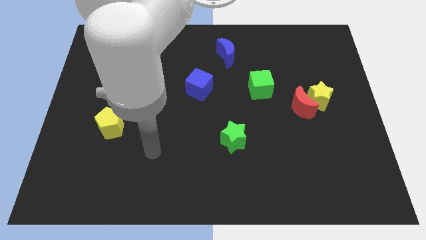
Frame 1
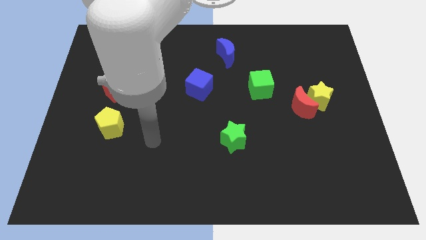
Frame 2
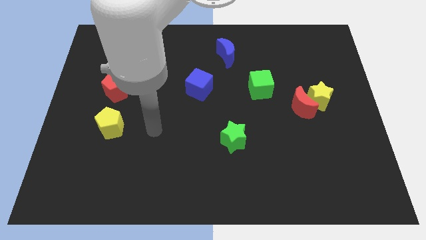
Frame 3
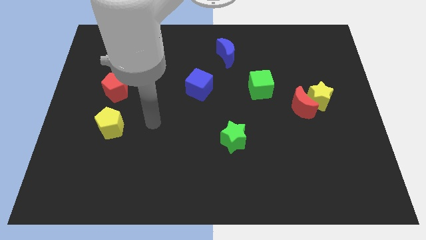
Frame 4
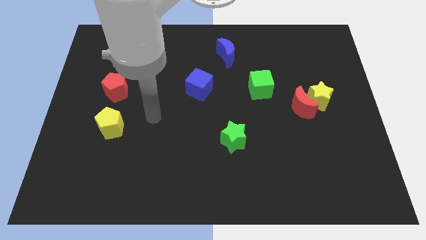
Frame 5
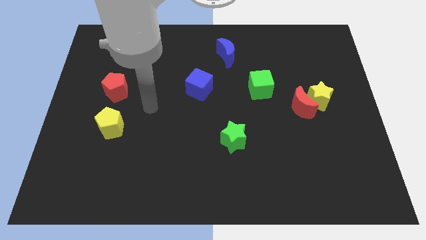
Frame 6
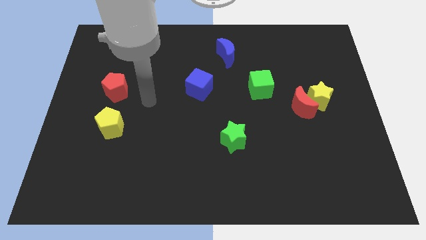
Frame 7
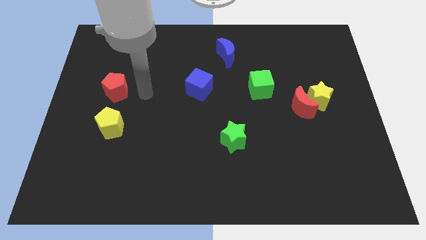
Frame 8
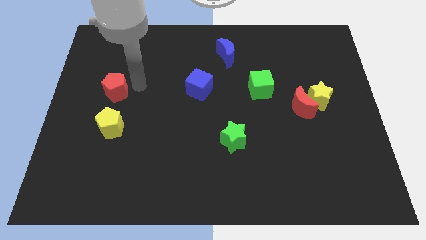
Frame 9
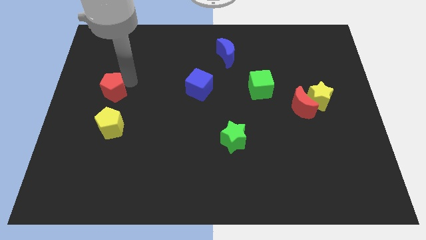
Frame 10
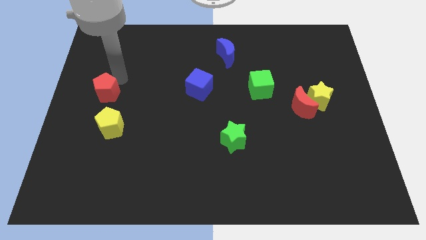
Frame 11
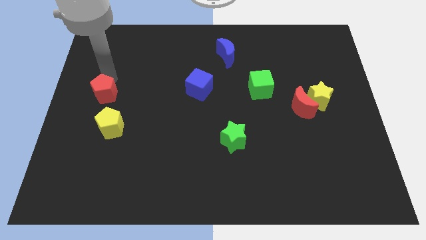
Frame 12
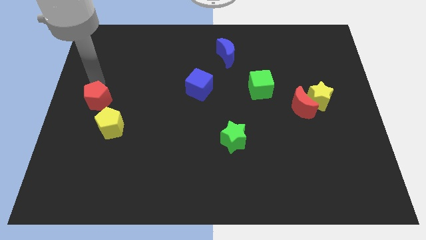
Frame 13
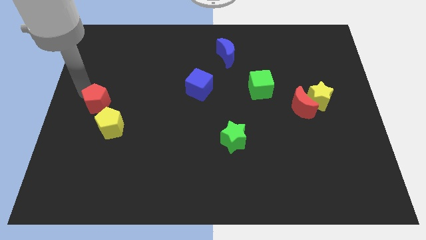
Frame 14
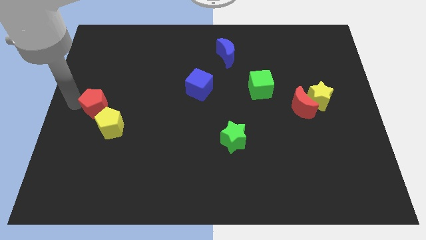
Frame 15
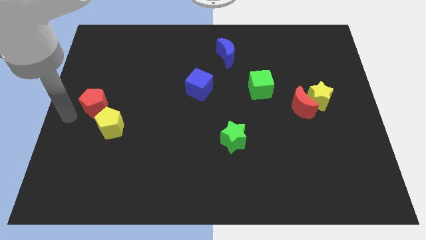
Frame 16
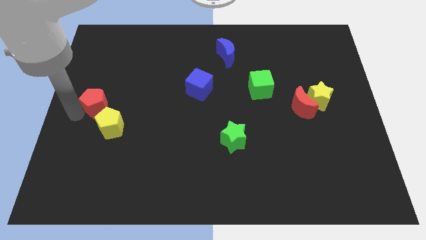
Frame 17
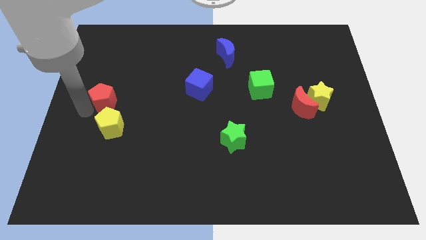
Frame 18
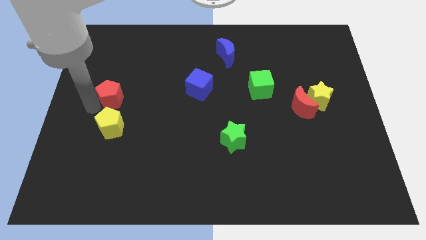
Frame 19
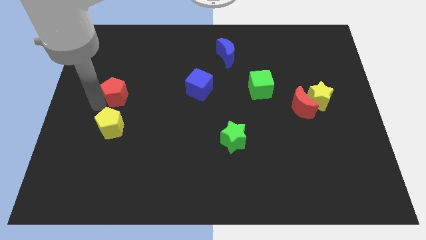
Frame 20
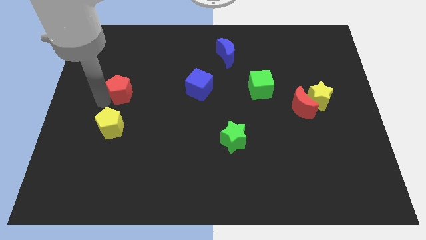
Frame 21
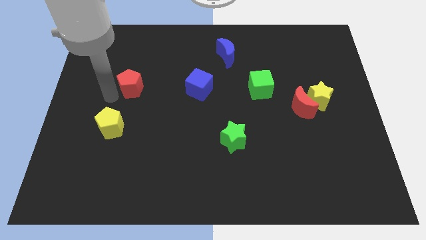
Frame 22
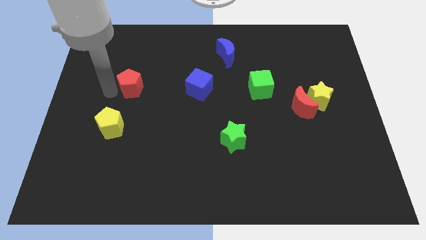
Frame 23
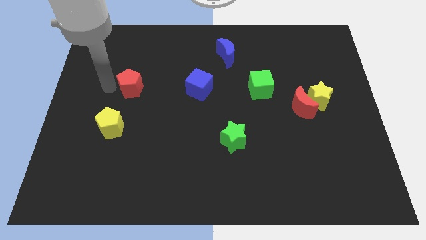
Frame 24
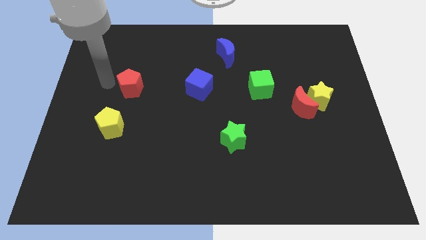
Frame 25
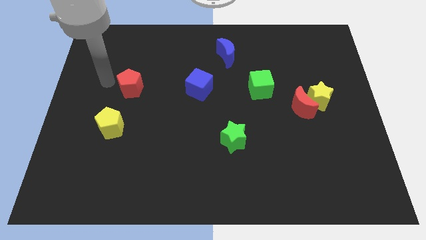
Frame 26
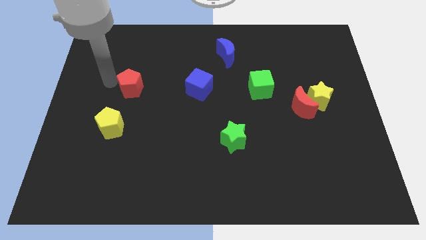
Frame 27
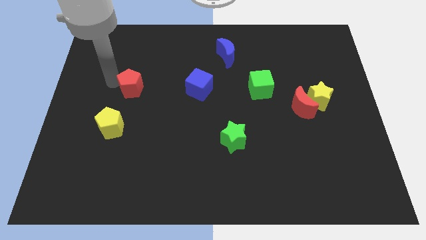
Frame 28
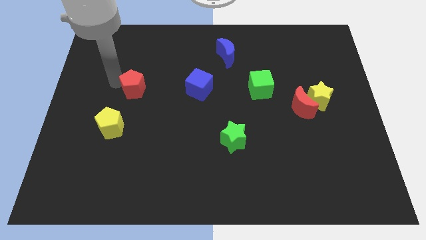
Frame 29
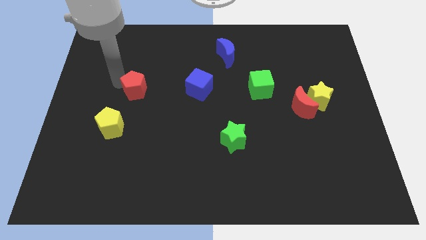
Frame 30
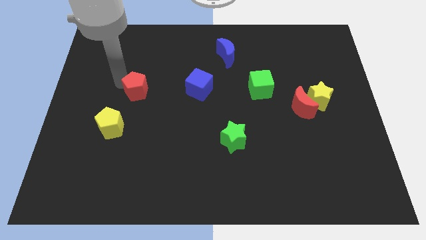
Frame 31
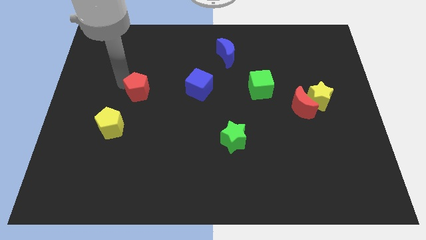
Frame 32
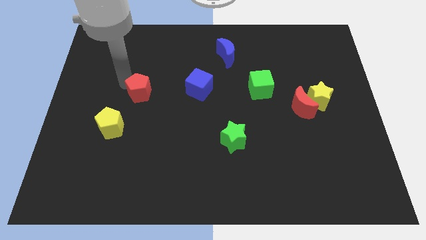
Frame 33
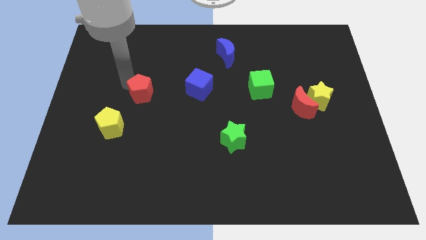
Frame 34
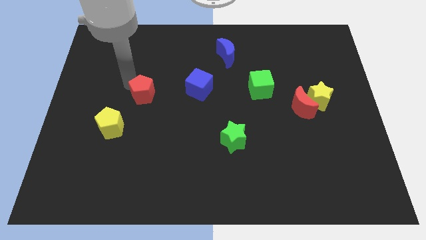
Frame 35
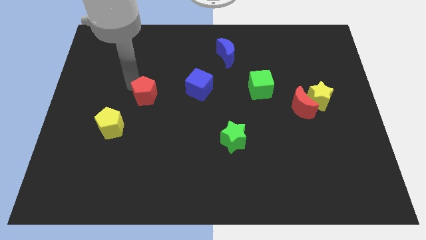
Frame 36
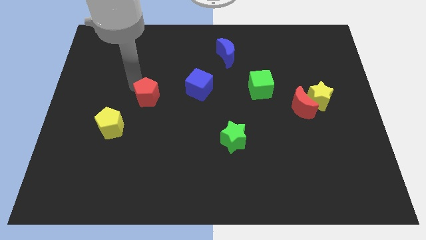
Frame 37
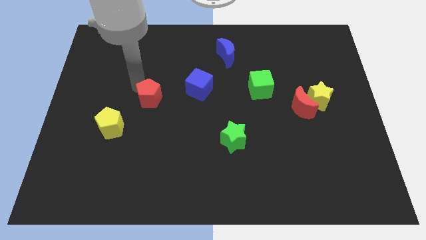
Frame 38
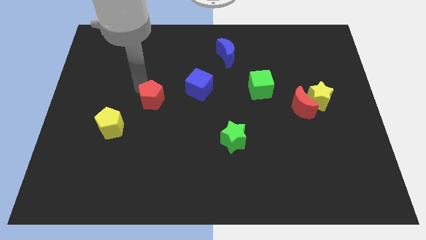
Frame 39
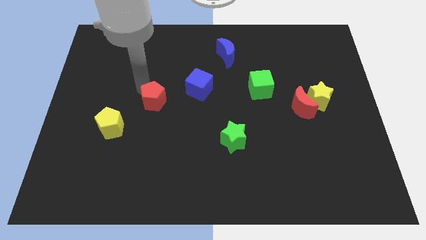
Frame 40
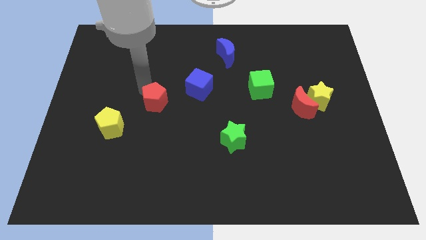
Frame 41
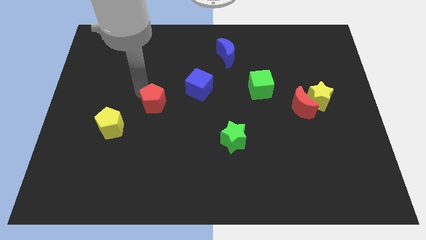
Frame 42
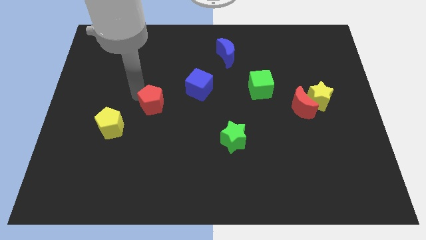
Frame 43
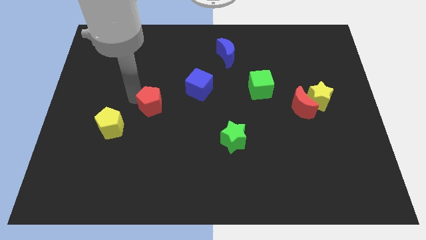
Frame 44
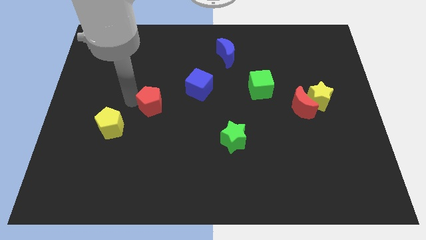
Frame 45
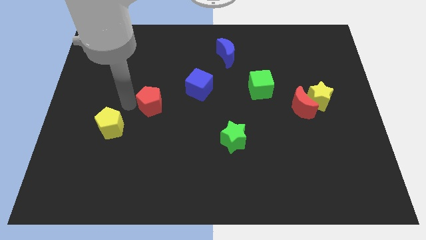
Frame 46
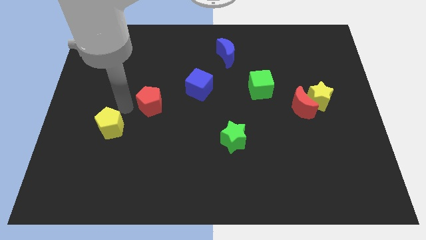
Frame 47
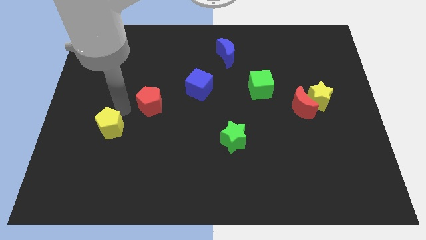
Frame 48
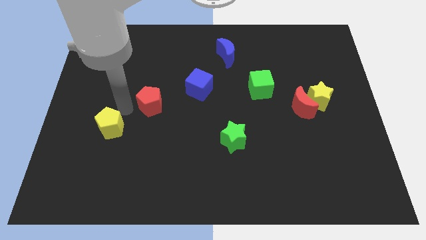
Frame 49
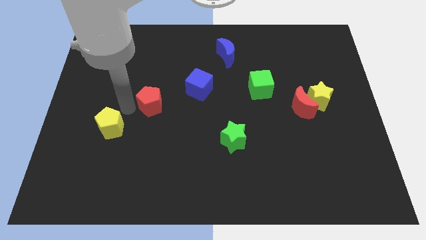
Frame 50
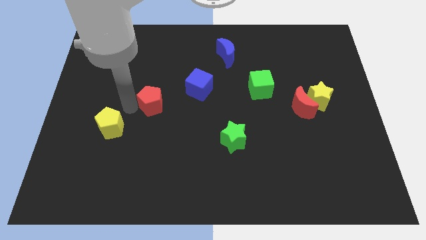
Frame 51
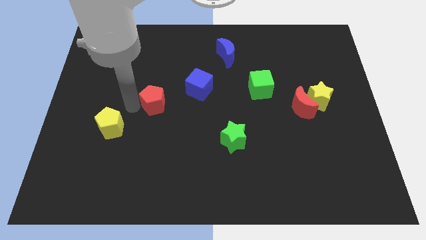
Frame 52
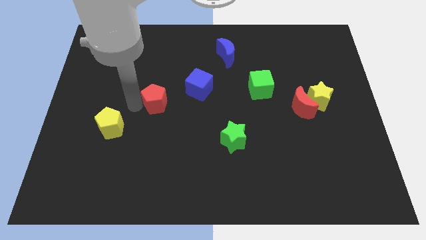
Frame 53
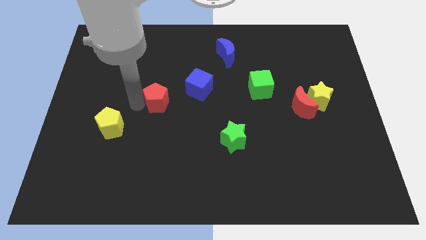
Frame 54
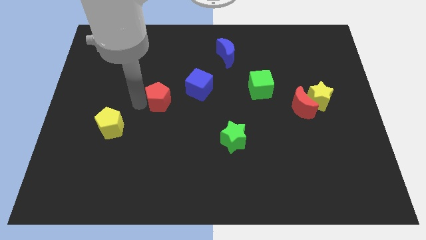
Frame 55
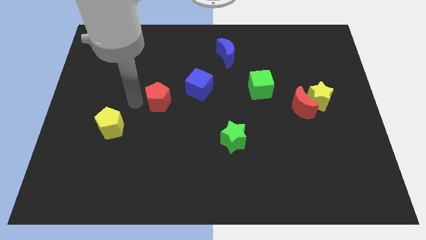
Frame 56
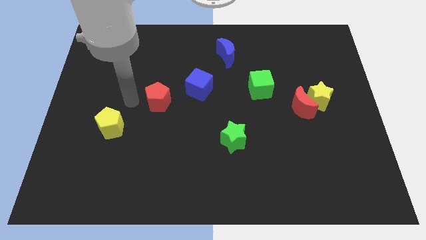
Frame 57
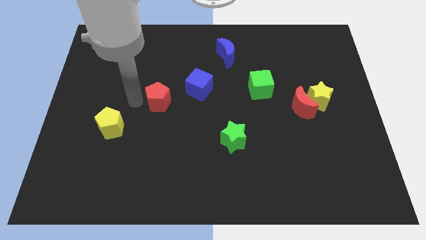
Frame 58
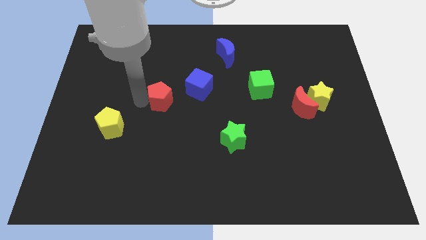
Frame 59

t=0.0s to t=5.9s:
move the red pentagon to the center of the board

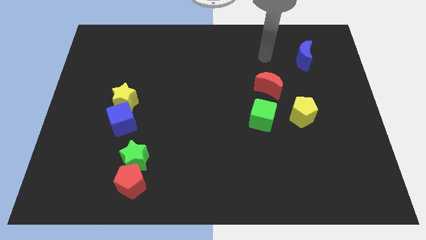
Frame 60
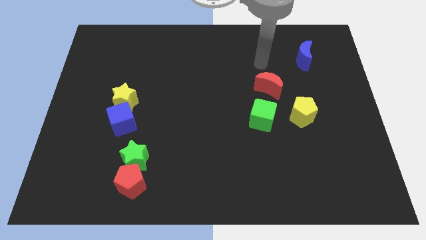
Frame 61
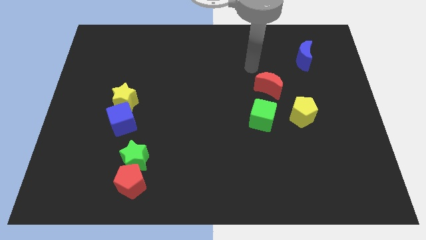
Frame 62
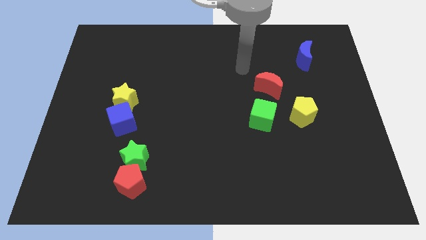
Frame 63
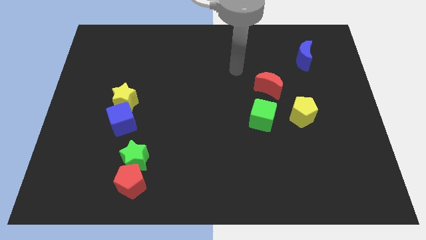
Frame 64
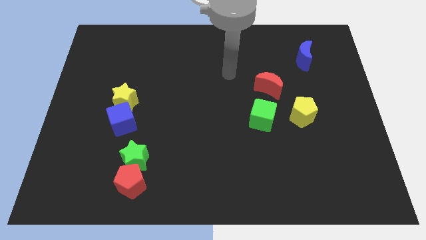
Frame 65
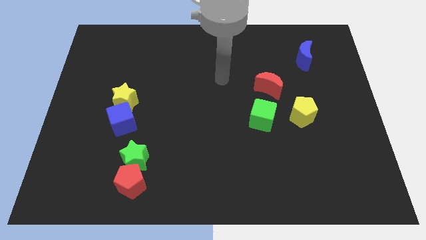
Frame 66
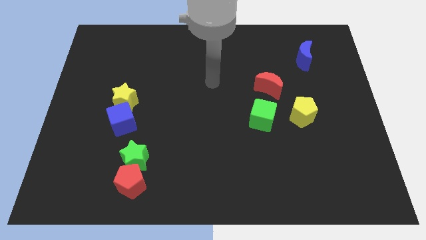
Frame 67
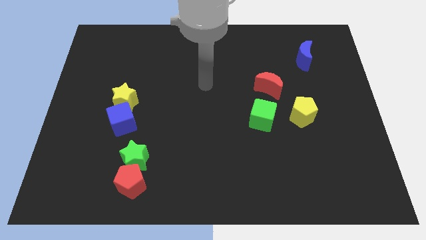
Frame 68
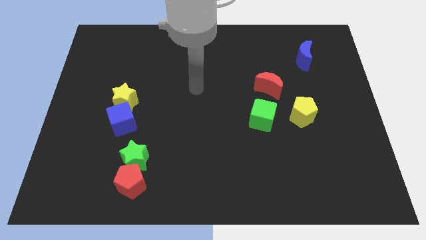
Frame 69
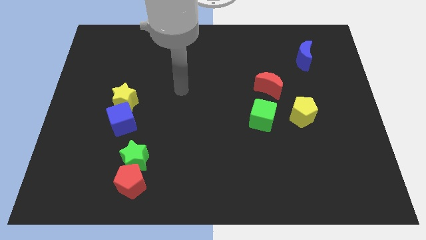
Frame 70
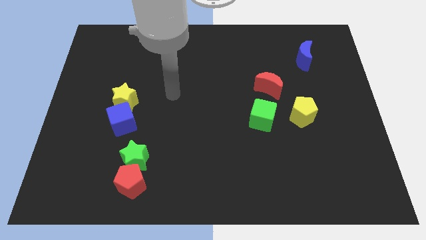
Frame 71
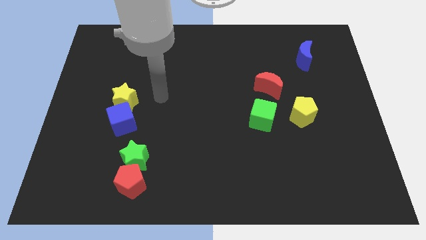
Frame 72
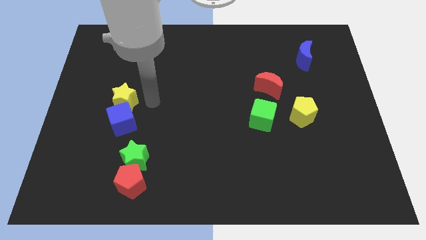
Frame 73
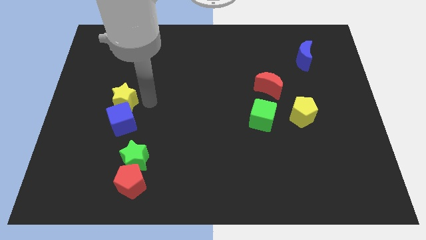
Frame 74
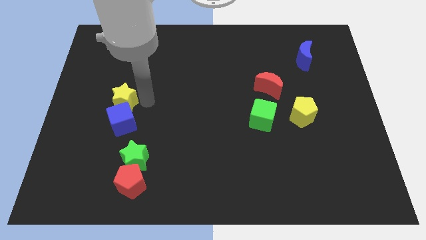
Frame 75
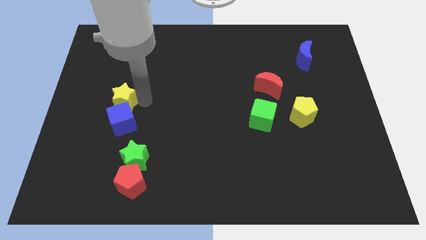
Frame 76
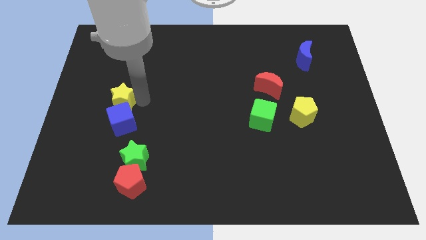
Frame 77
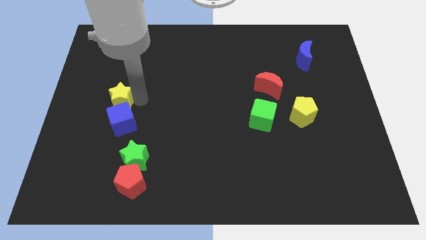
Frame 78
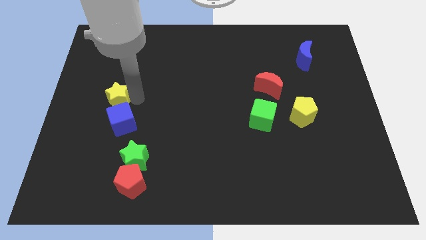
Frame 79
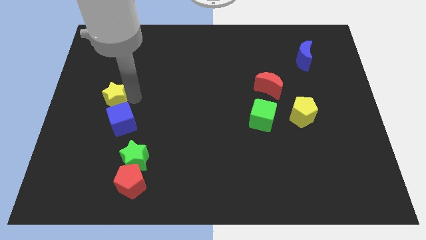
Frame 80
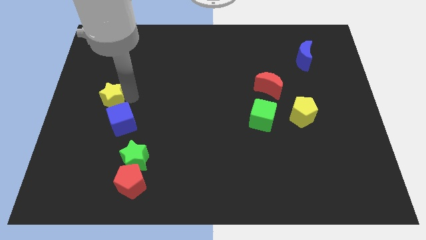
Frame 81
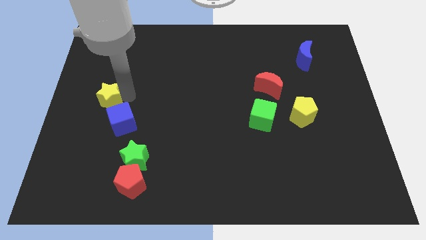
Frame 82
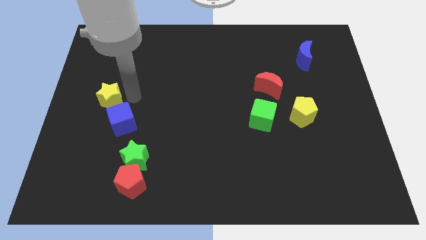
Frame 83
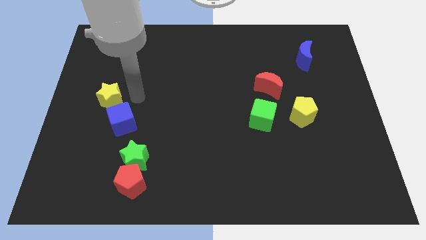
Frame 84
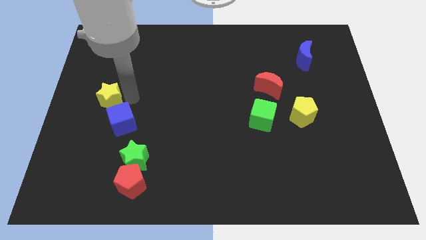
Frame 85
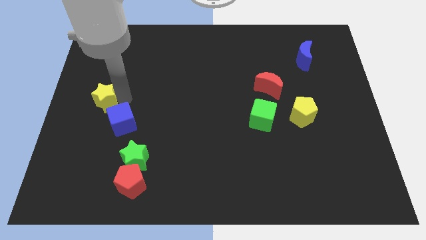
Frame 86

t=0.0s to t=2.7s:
slide the yellow star to the left side
